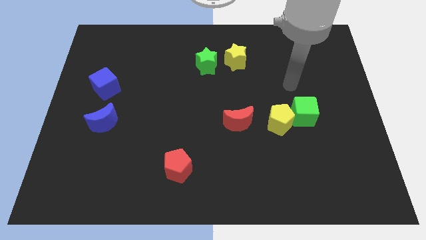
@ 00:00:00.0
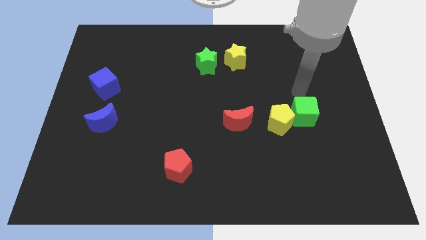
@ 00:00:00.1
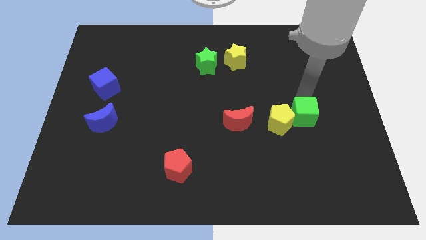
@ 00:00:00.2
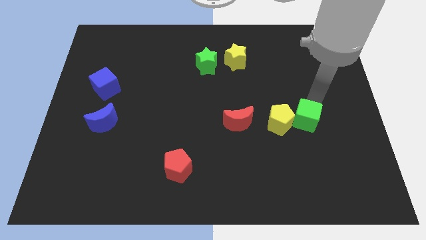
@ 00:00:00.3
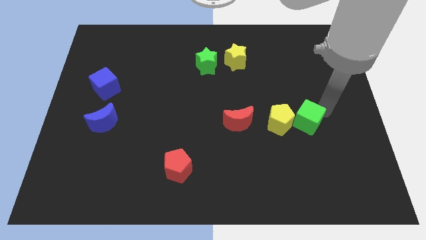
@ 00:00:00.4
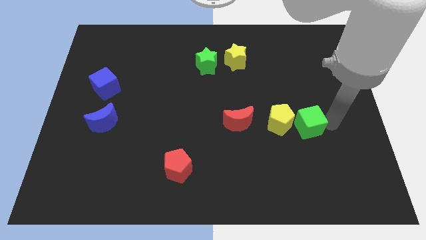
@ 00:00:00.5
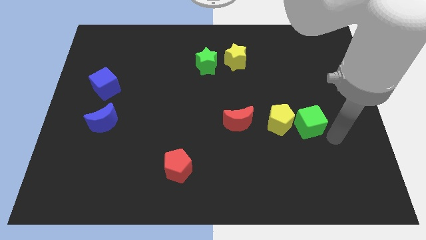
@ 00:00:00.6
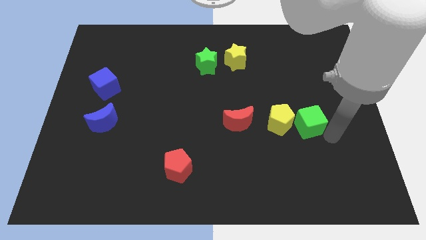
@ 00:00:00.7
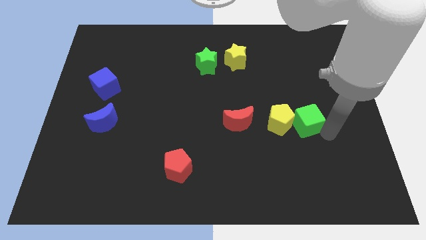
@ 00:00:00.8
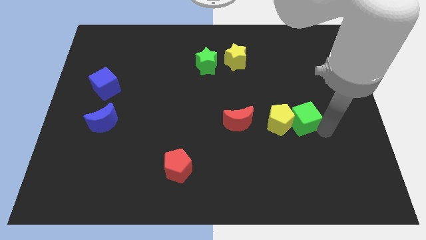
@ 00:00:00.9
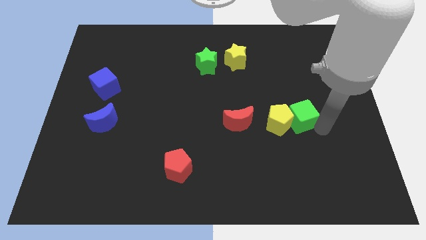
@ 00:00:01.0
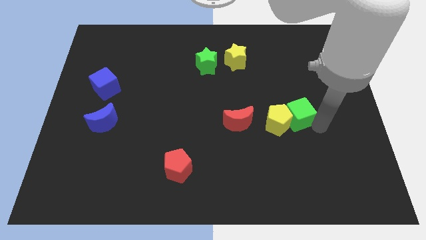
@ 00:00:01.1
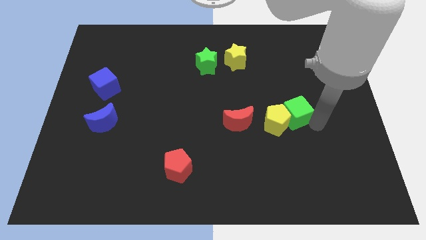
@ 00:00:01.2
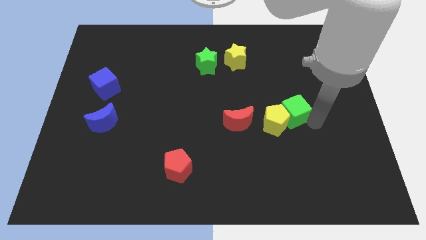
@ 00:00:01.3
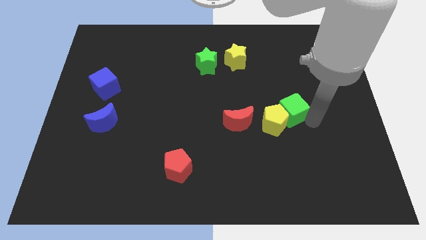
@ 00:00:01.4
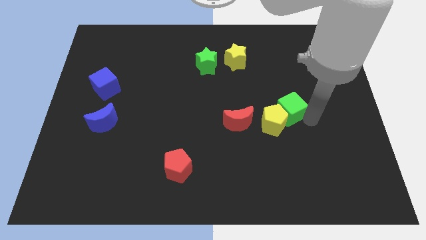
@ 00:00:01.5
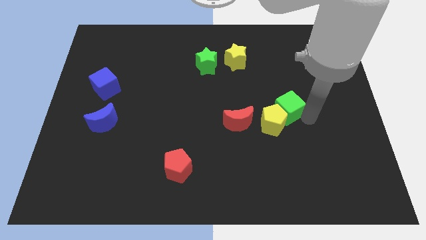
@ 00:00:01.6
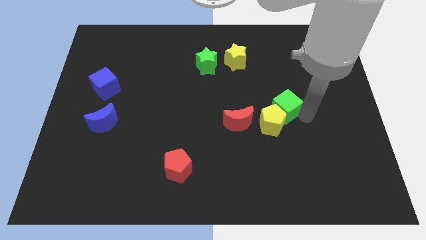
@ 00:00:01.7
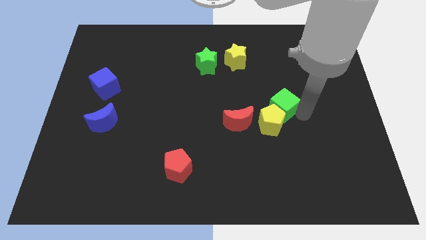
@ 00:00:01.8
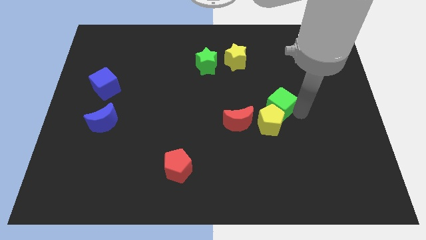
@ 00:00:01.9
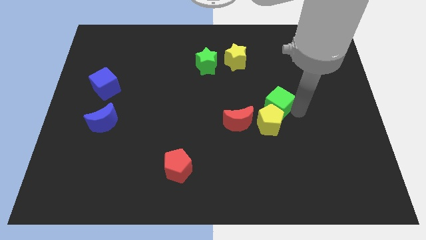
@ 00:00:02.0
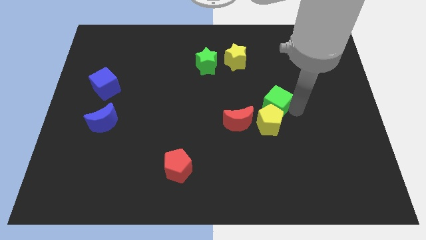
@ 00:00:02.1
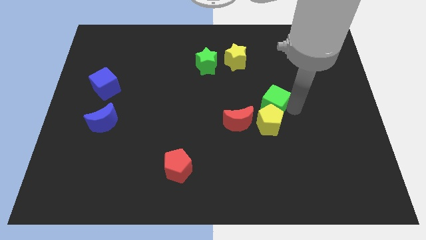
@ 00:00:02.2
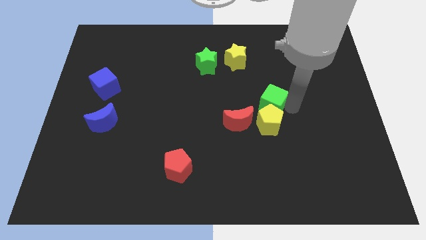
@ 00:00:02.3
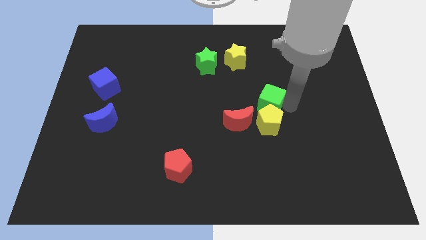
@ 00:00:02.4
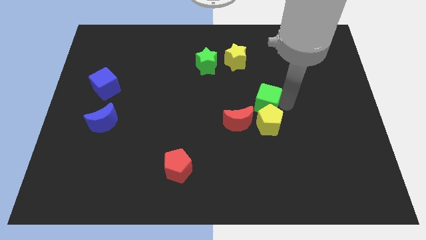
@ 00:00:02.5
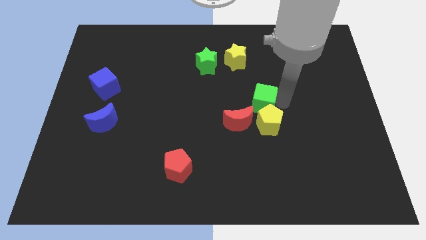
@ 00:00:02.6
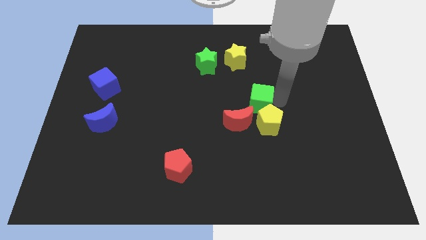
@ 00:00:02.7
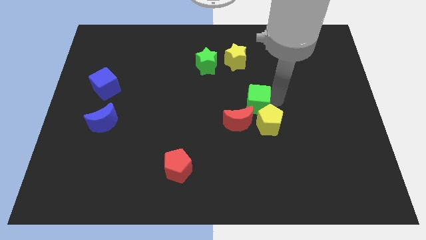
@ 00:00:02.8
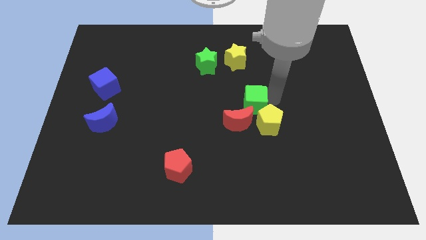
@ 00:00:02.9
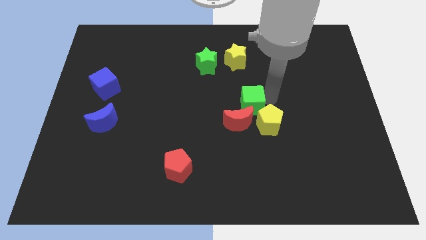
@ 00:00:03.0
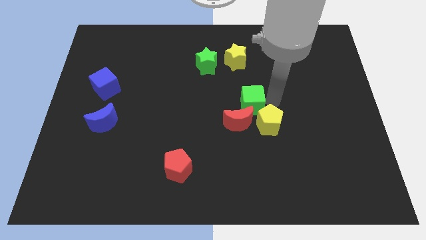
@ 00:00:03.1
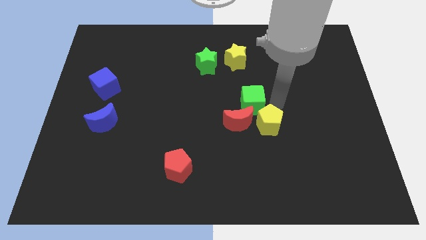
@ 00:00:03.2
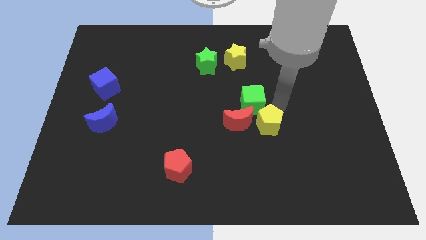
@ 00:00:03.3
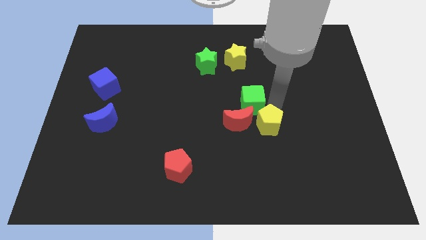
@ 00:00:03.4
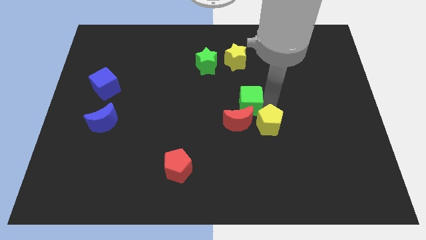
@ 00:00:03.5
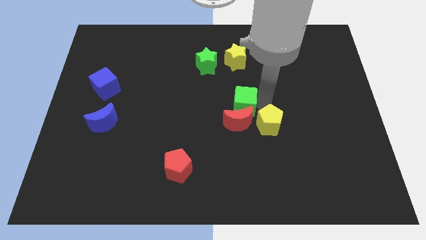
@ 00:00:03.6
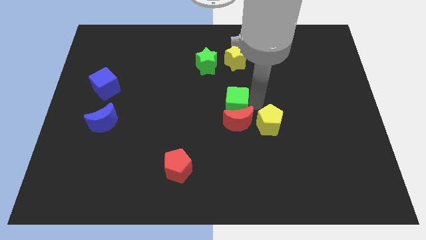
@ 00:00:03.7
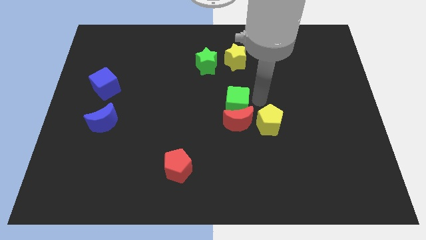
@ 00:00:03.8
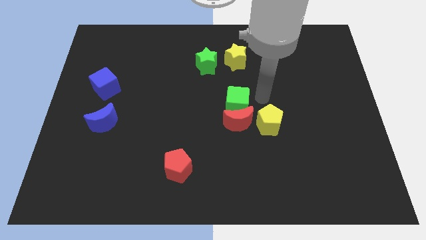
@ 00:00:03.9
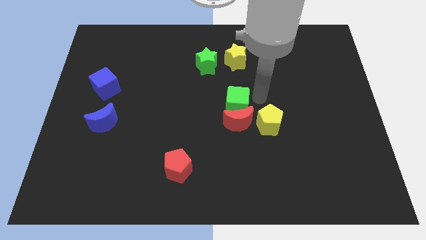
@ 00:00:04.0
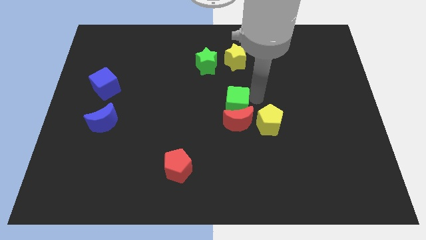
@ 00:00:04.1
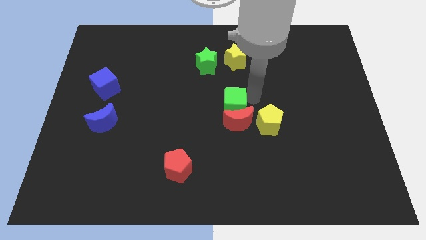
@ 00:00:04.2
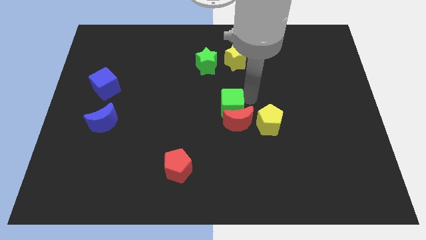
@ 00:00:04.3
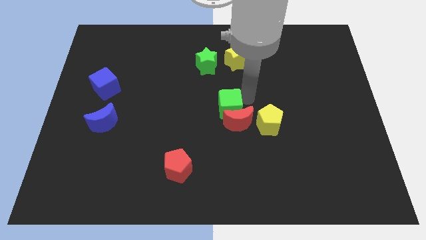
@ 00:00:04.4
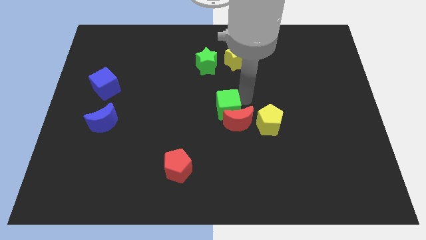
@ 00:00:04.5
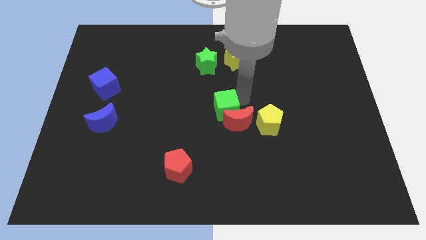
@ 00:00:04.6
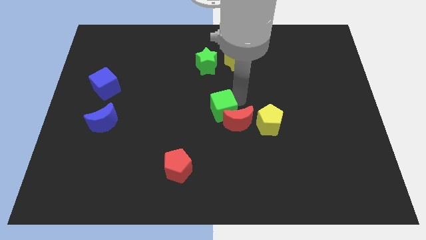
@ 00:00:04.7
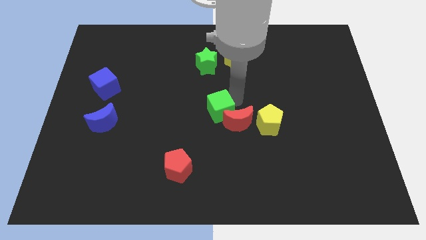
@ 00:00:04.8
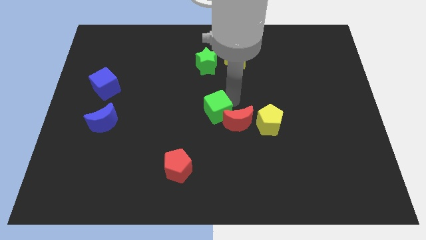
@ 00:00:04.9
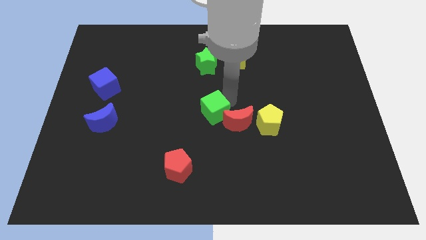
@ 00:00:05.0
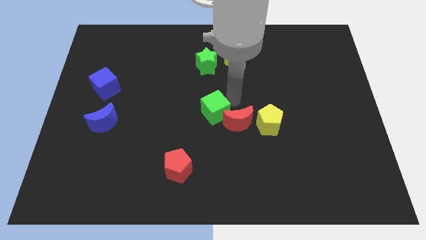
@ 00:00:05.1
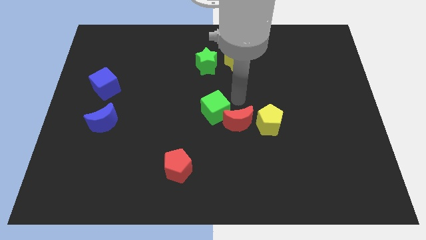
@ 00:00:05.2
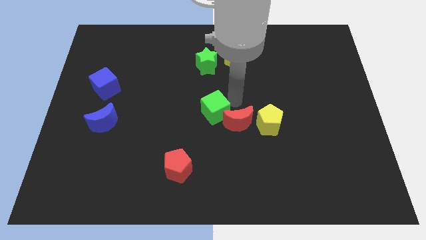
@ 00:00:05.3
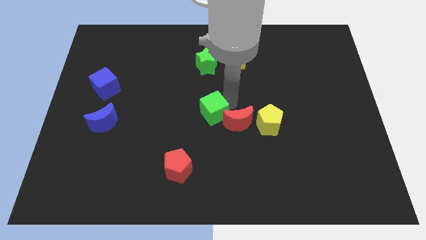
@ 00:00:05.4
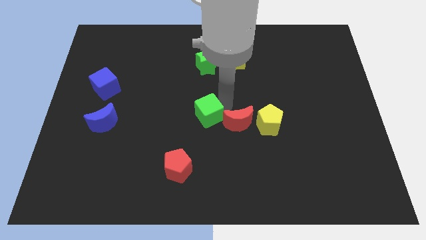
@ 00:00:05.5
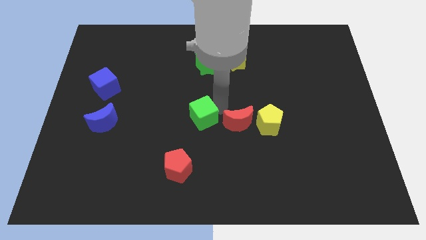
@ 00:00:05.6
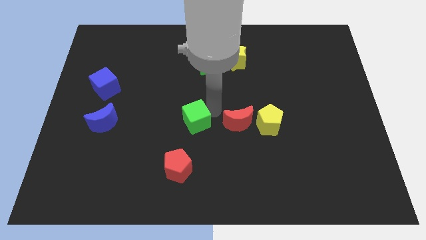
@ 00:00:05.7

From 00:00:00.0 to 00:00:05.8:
put the green cube above the red pentagon
